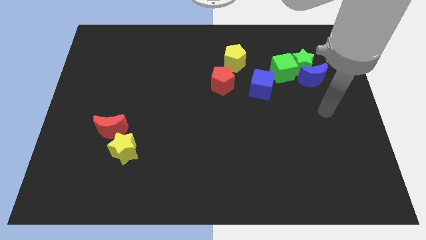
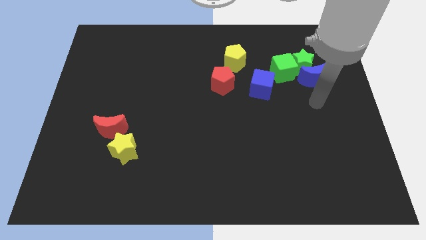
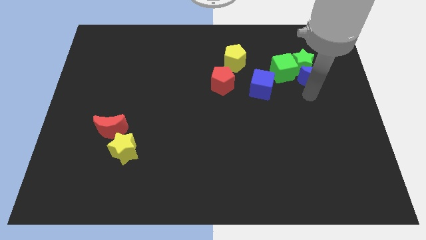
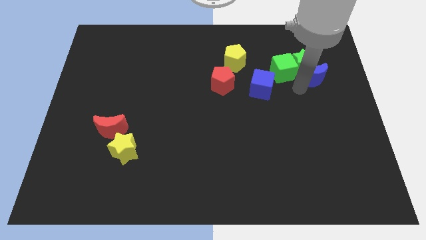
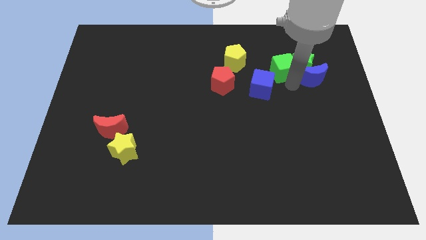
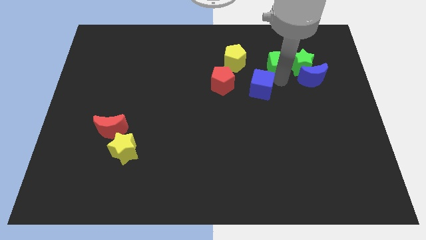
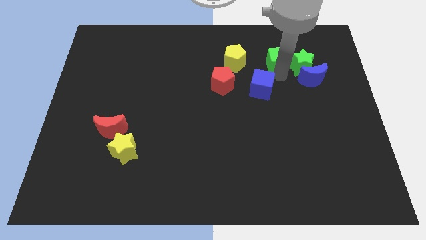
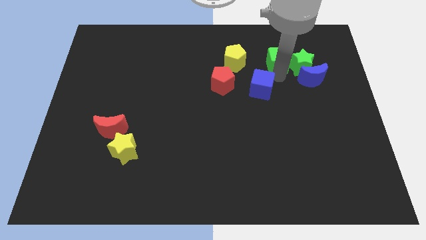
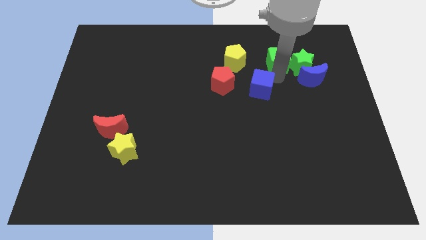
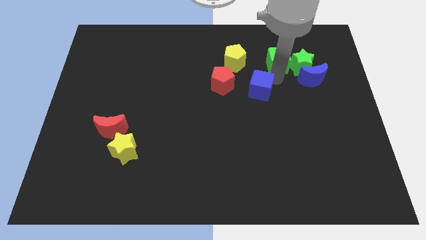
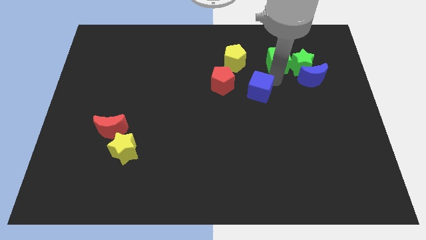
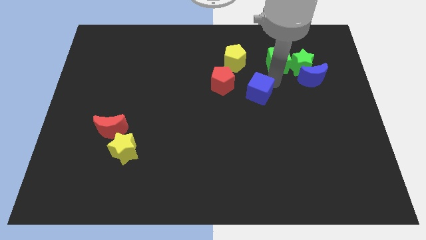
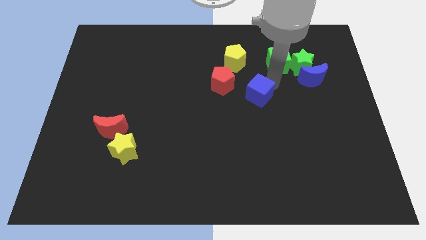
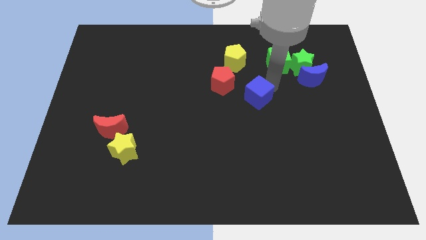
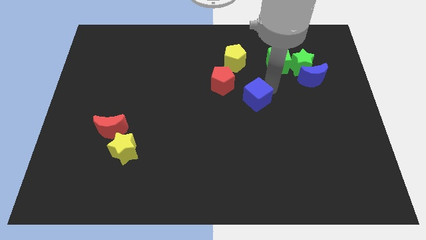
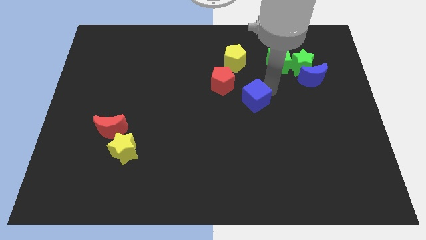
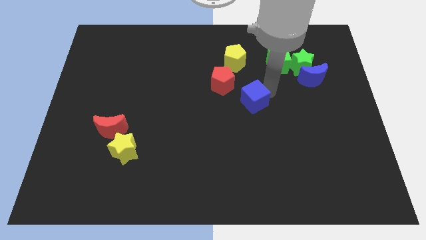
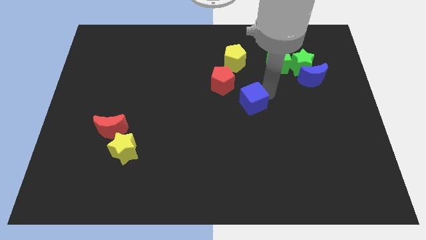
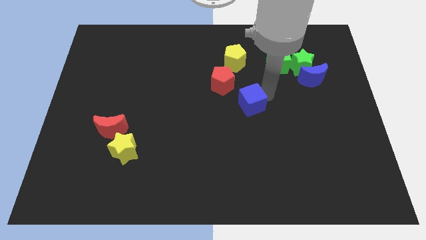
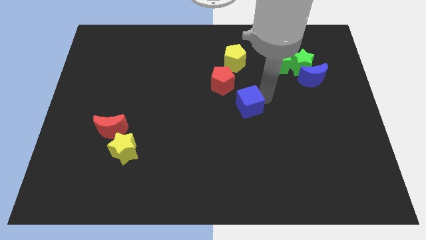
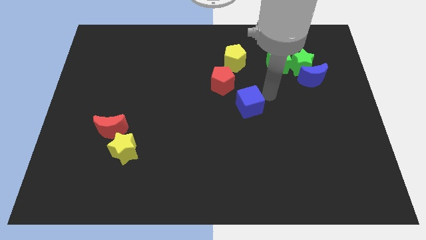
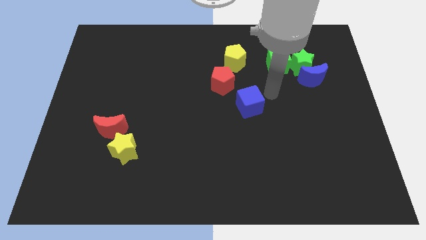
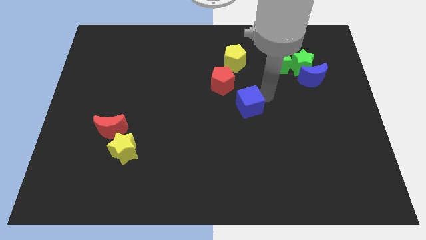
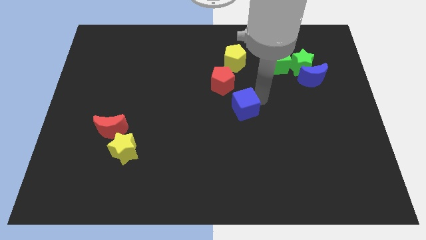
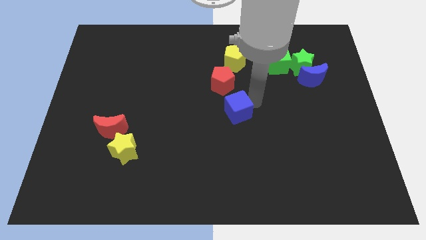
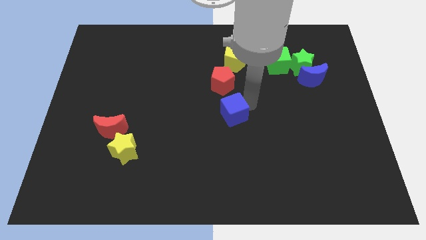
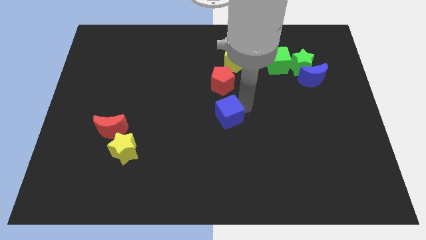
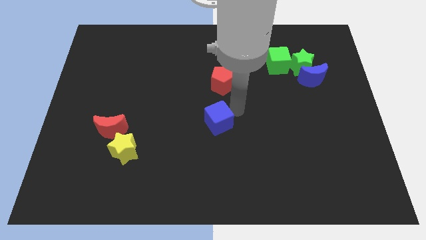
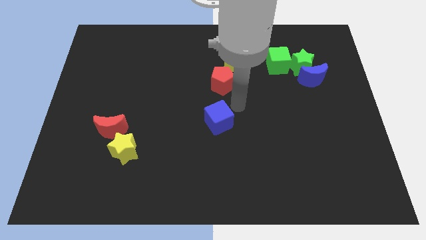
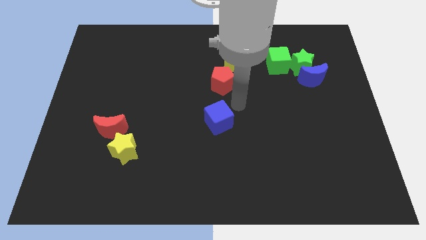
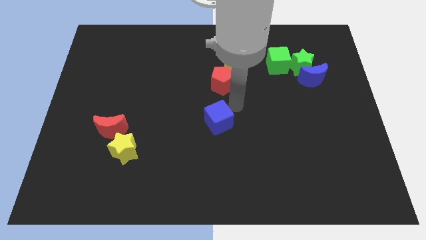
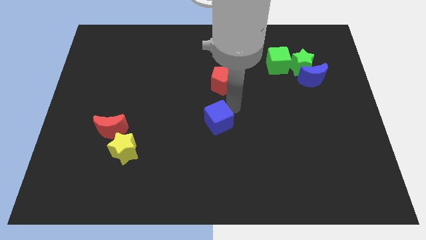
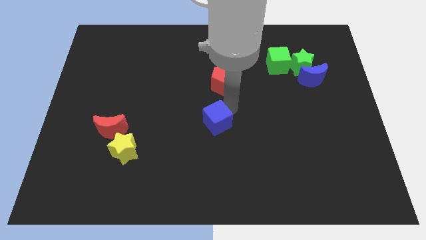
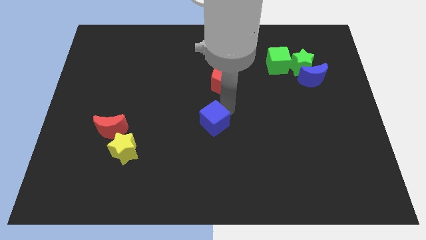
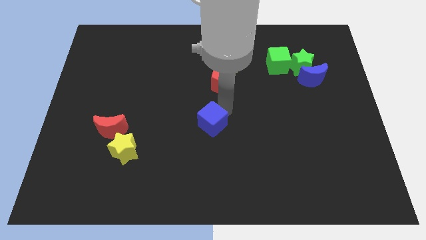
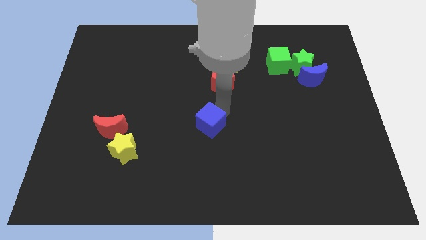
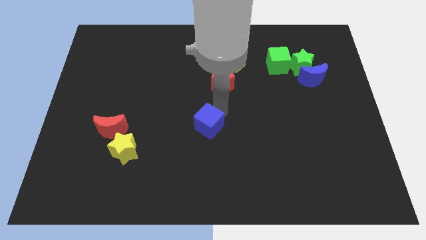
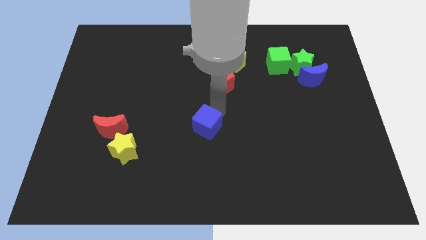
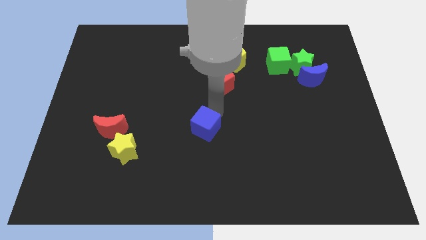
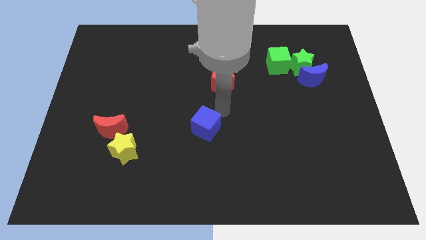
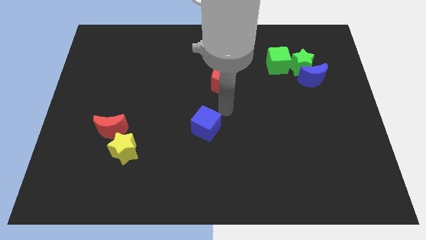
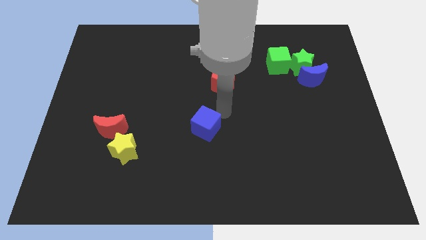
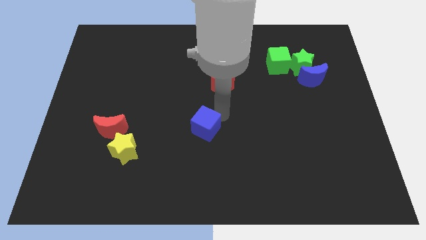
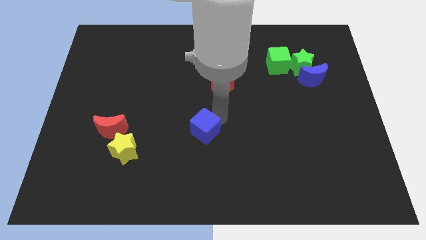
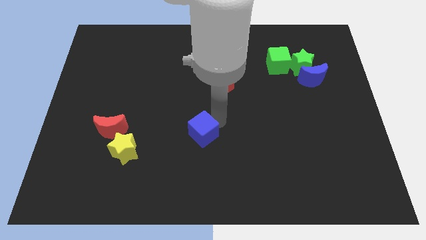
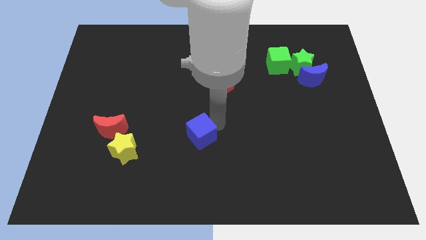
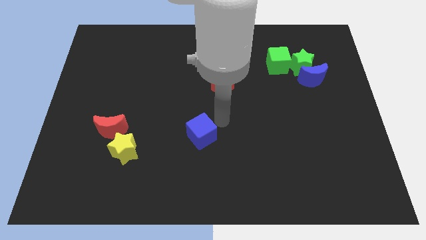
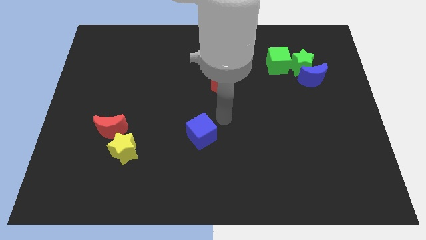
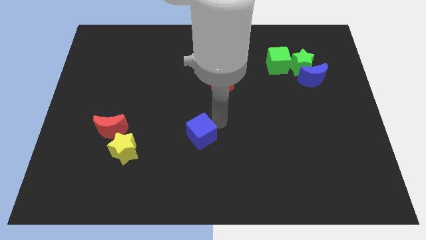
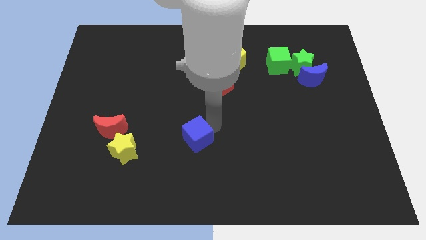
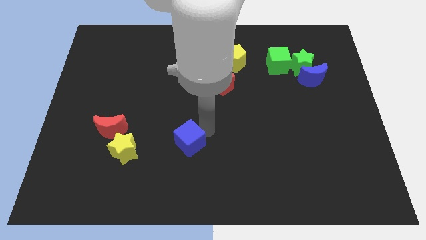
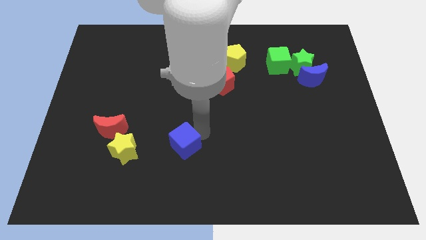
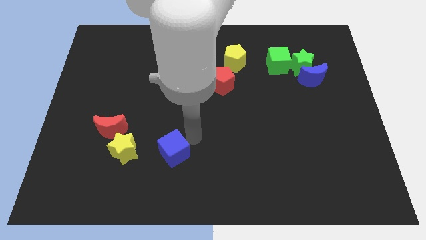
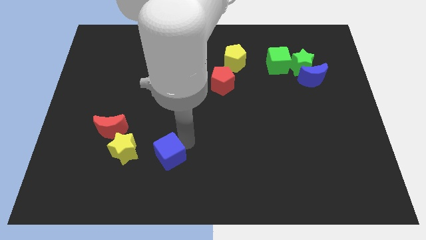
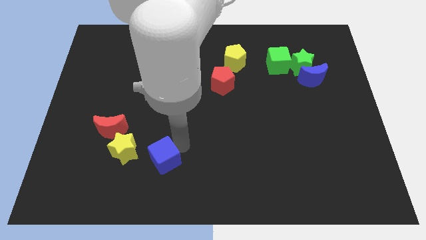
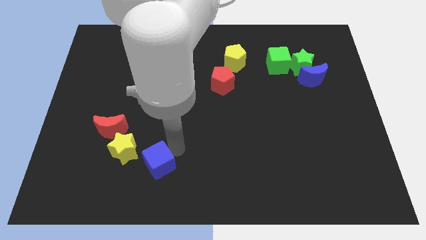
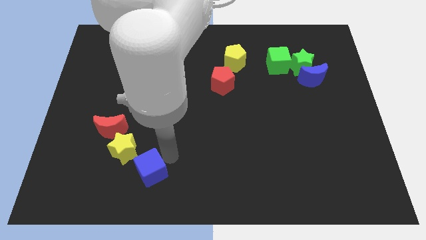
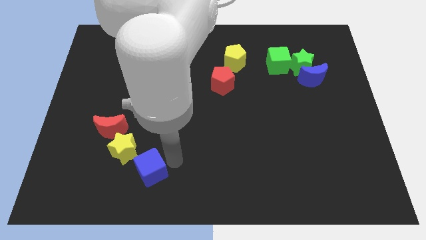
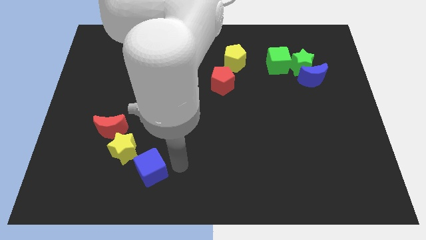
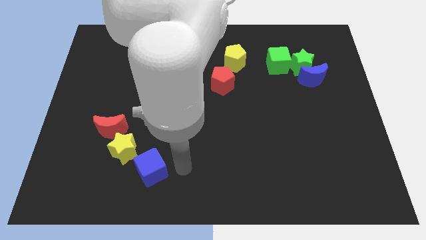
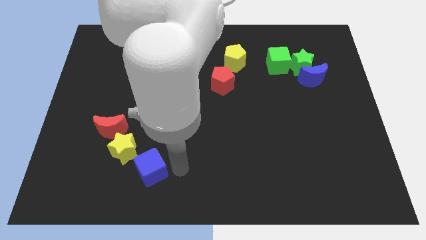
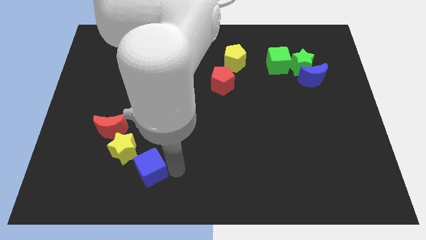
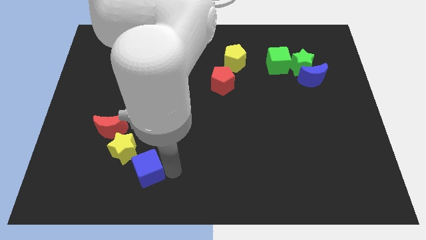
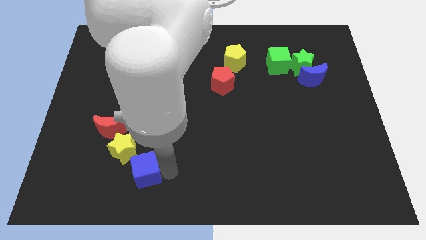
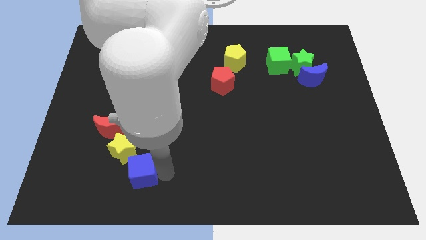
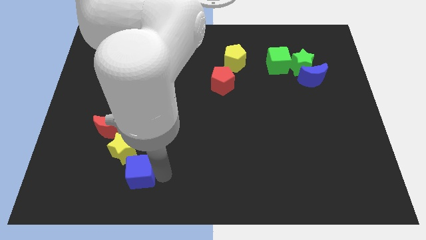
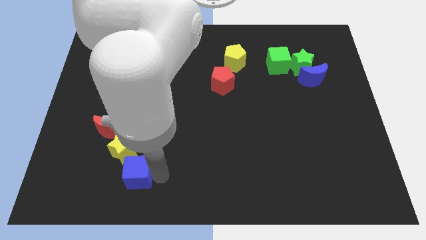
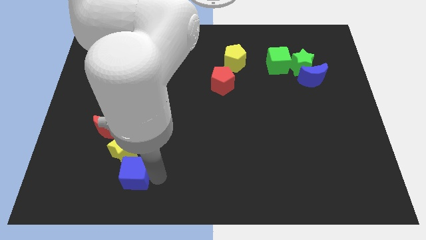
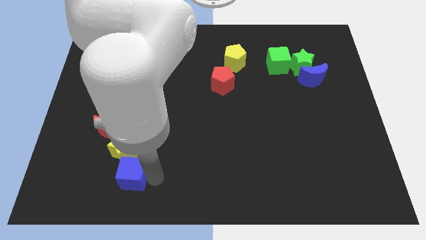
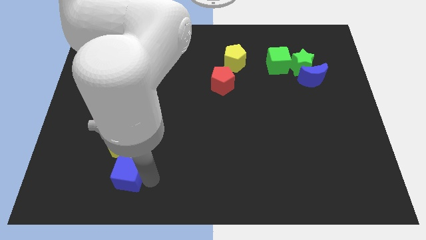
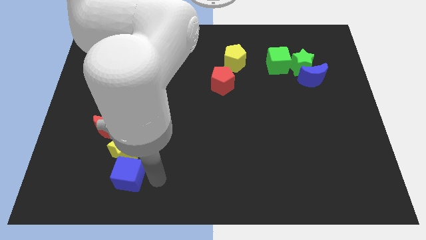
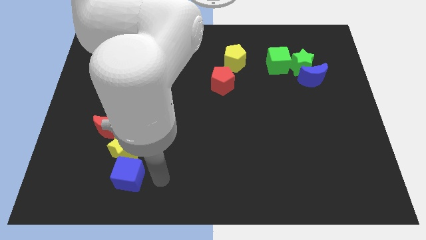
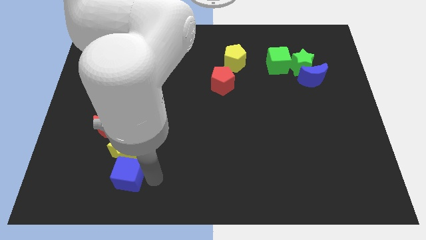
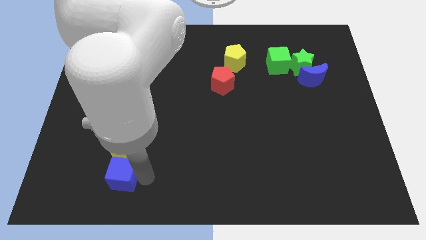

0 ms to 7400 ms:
move the blue cube to the bottom left of the yellow star
